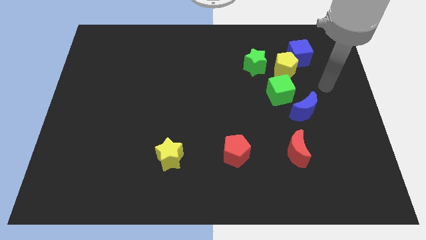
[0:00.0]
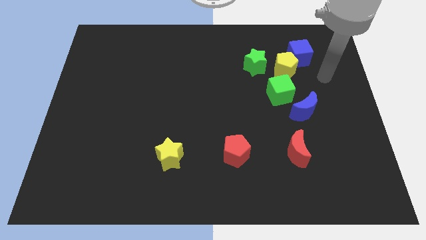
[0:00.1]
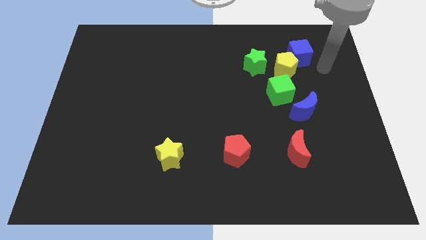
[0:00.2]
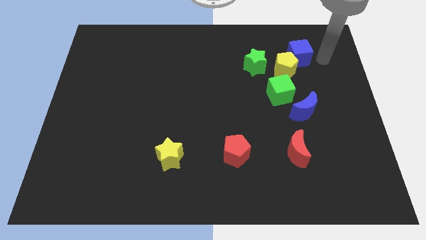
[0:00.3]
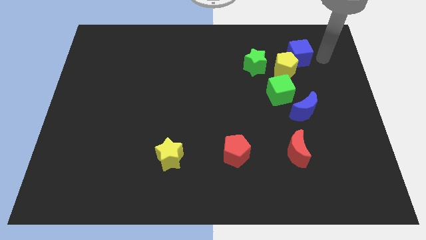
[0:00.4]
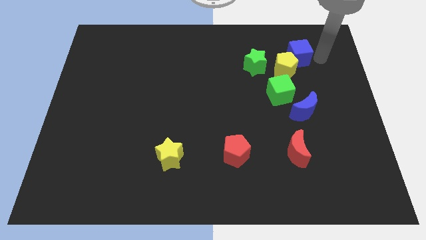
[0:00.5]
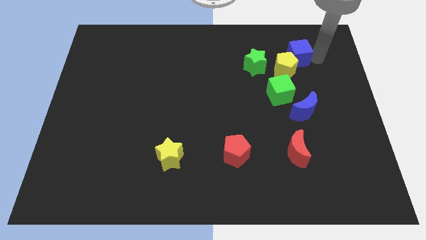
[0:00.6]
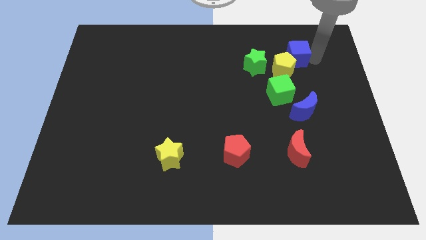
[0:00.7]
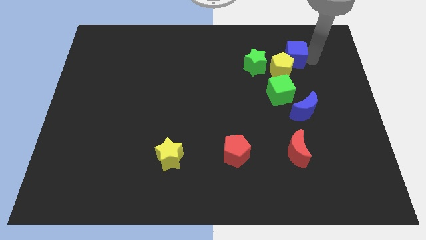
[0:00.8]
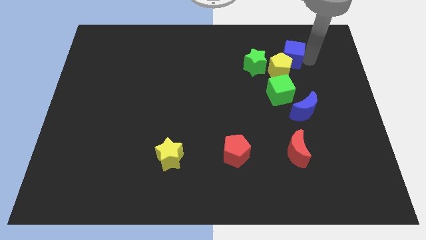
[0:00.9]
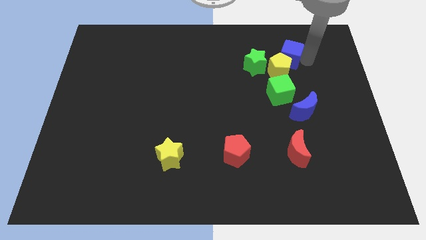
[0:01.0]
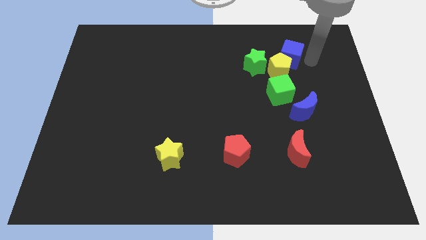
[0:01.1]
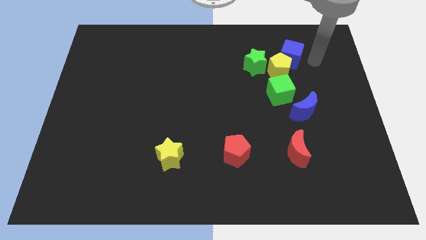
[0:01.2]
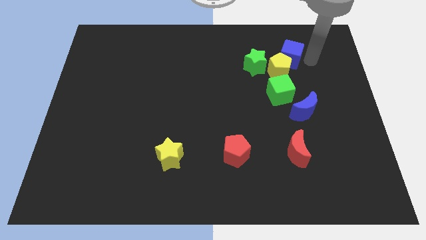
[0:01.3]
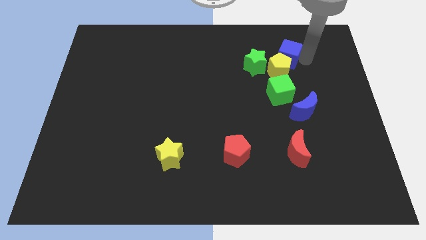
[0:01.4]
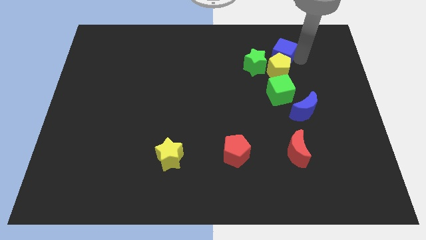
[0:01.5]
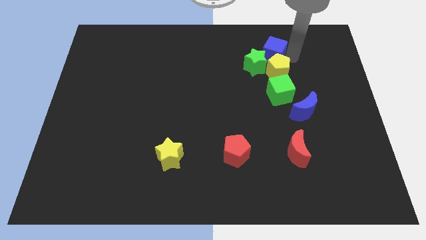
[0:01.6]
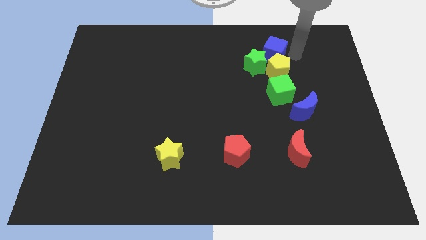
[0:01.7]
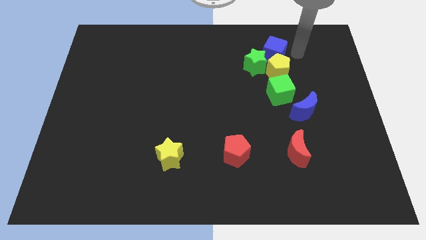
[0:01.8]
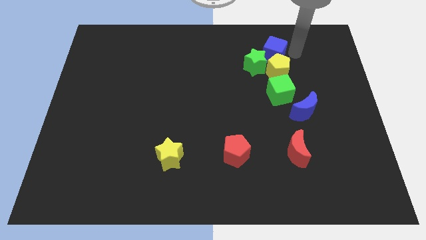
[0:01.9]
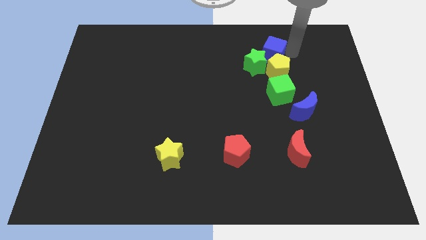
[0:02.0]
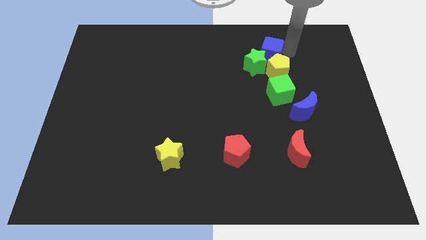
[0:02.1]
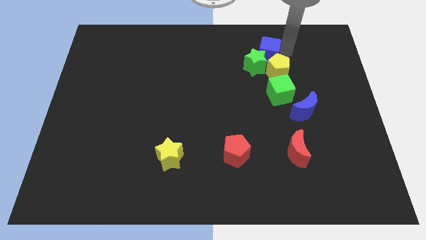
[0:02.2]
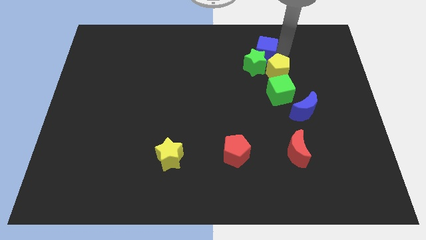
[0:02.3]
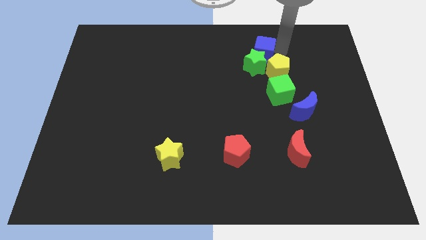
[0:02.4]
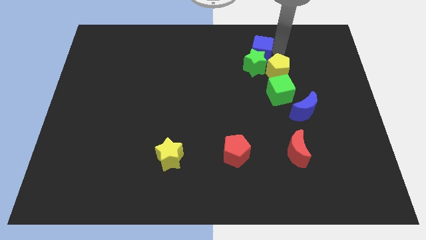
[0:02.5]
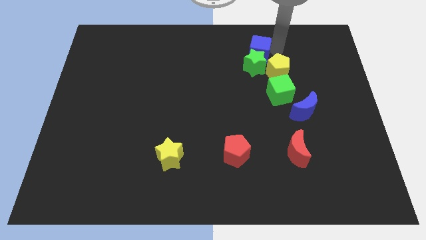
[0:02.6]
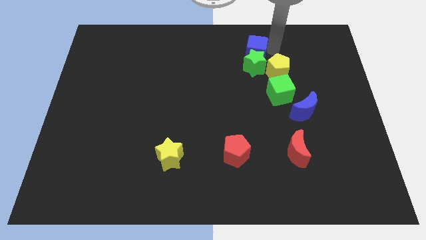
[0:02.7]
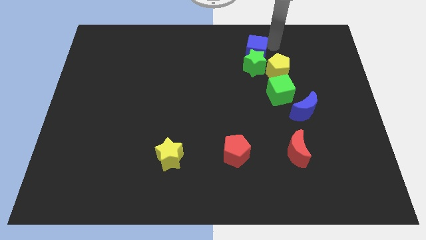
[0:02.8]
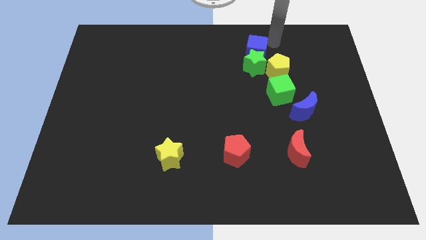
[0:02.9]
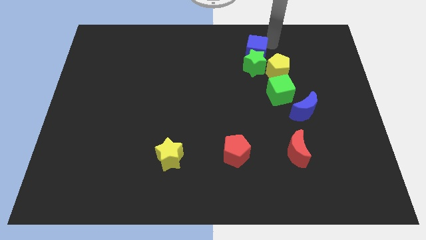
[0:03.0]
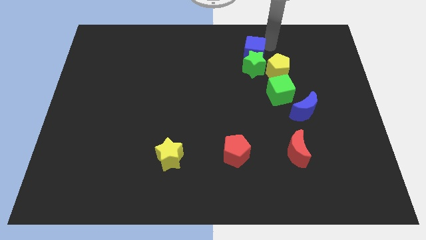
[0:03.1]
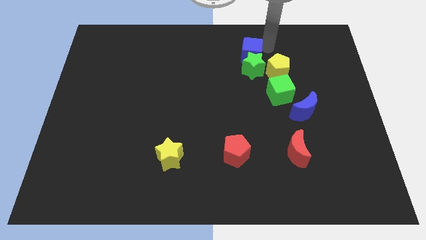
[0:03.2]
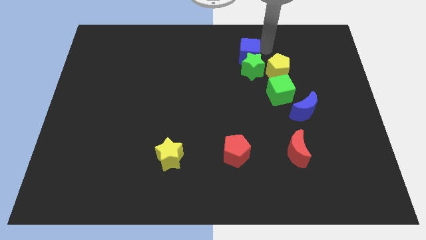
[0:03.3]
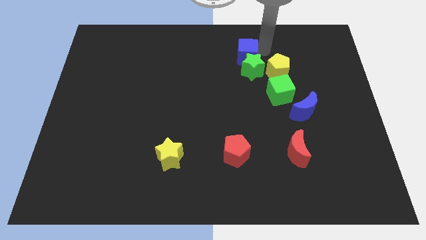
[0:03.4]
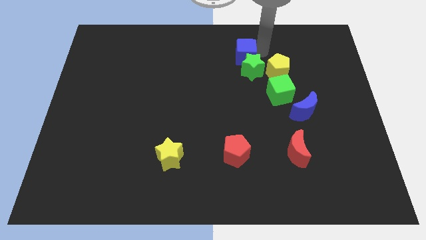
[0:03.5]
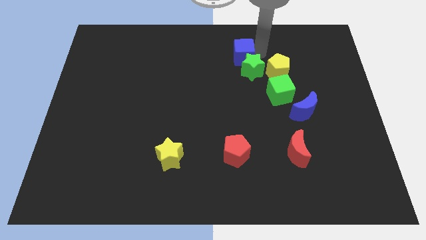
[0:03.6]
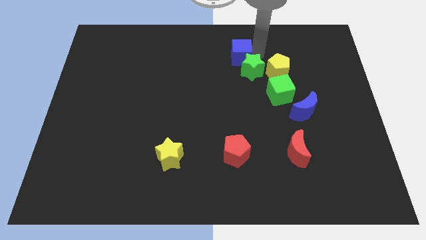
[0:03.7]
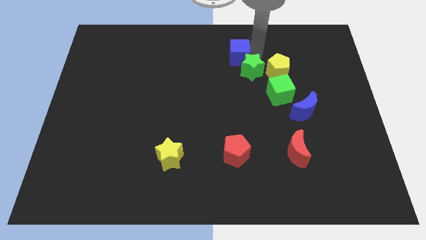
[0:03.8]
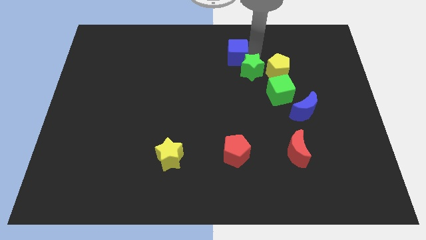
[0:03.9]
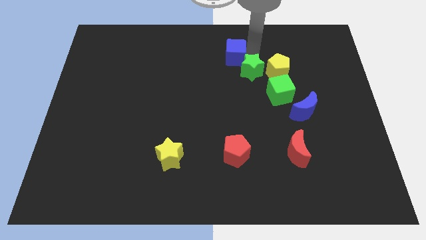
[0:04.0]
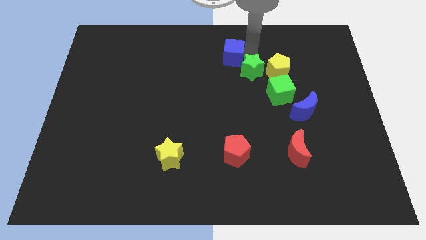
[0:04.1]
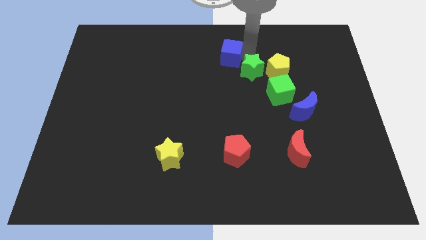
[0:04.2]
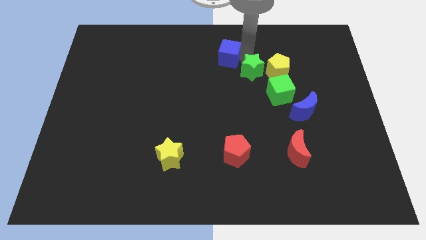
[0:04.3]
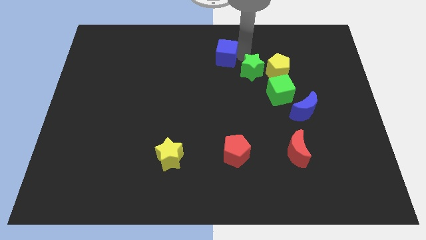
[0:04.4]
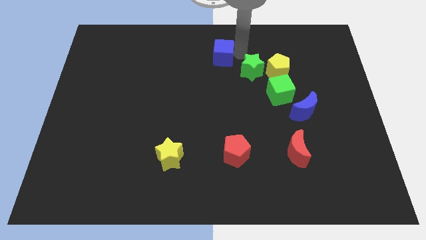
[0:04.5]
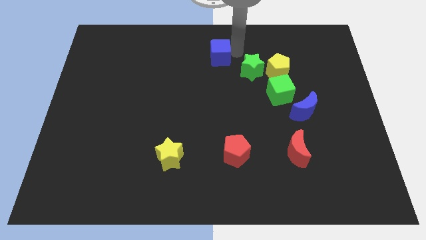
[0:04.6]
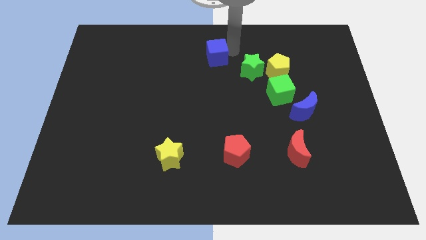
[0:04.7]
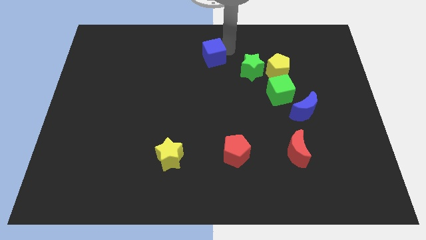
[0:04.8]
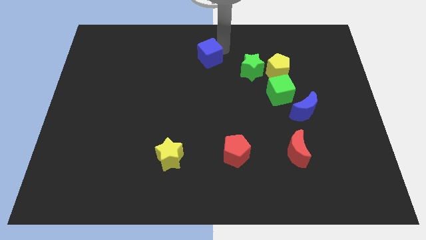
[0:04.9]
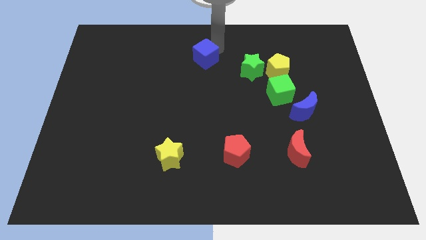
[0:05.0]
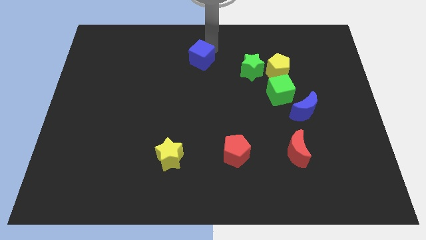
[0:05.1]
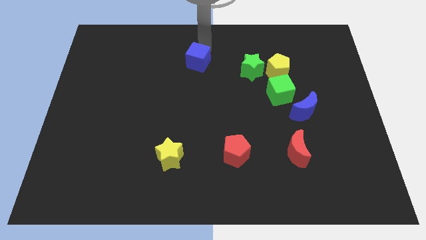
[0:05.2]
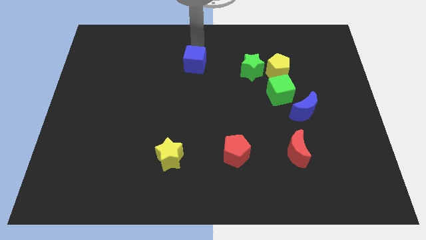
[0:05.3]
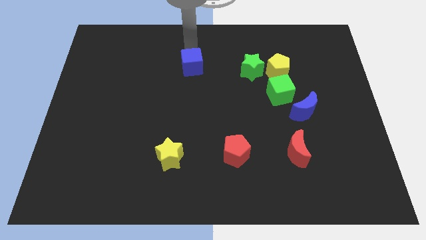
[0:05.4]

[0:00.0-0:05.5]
push the blue cube to the middle of the board
